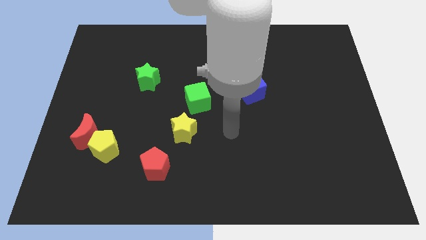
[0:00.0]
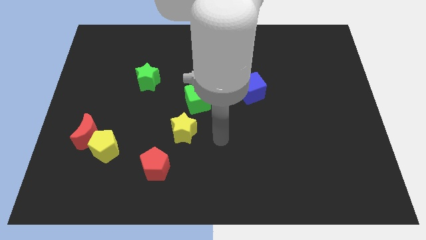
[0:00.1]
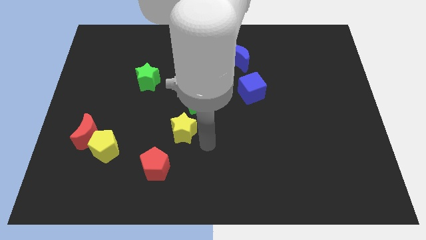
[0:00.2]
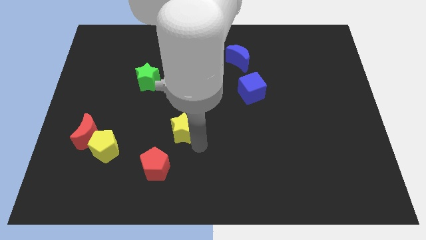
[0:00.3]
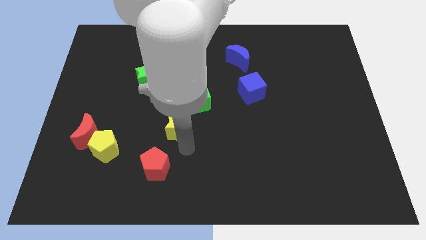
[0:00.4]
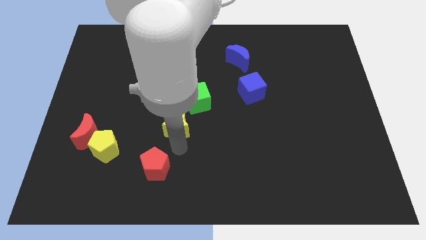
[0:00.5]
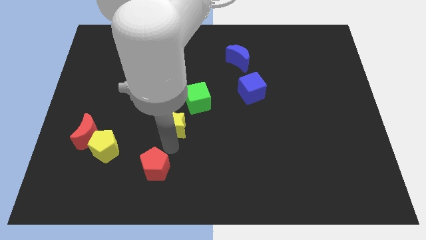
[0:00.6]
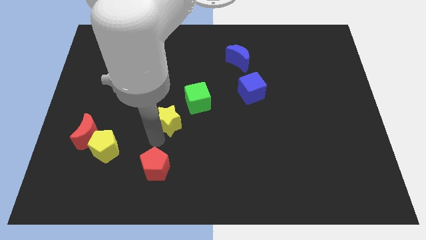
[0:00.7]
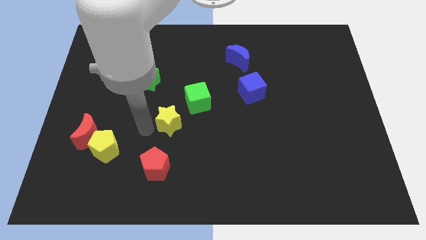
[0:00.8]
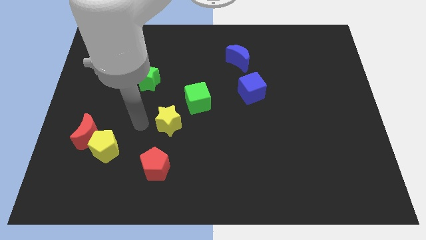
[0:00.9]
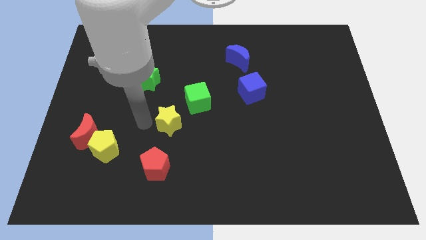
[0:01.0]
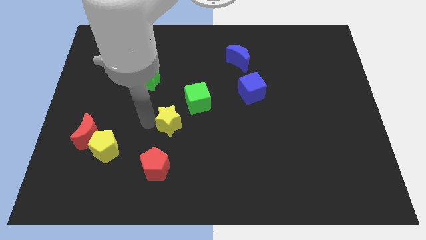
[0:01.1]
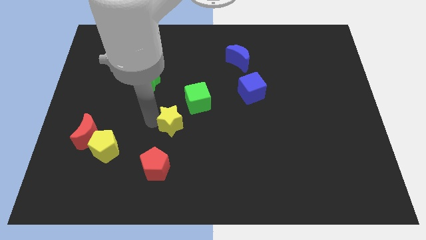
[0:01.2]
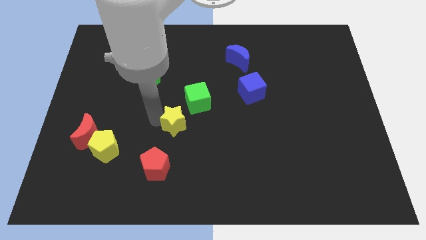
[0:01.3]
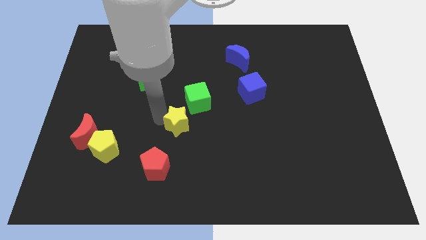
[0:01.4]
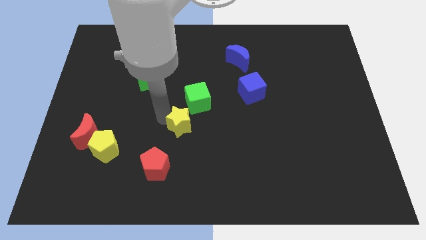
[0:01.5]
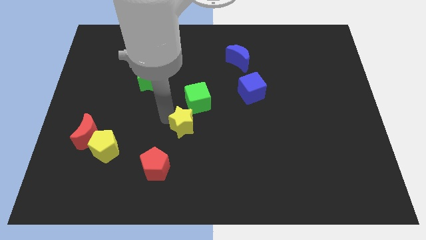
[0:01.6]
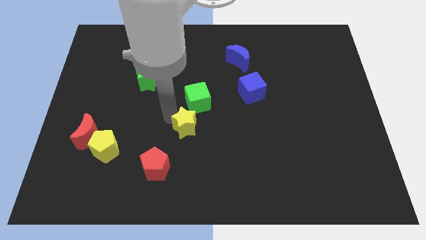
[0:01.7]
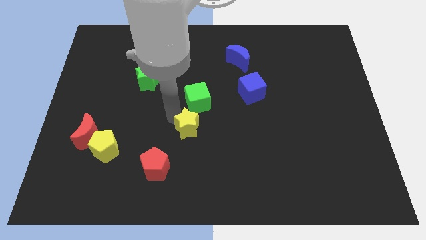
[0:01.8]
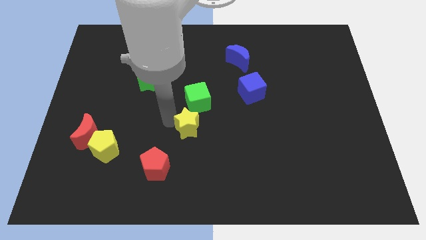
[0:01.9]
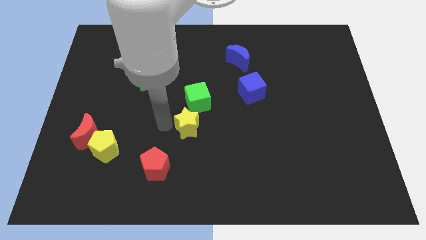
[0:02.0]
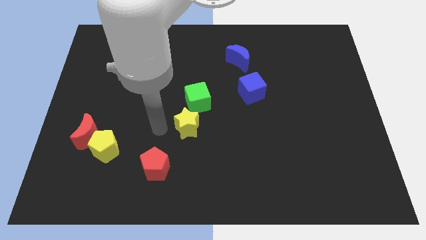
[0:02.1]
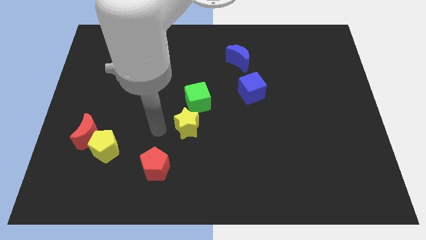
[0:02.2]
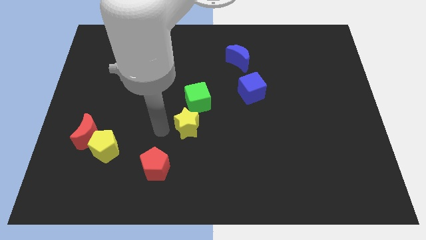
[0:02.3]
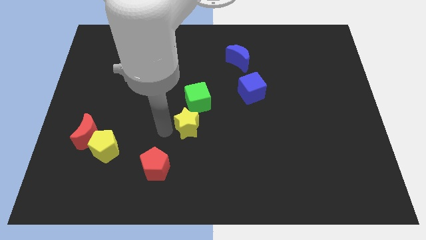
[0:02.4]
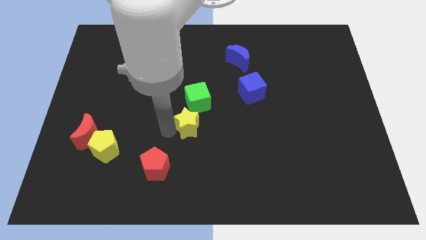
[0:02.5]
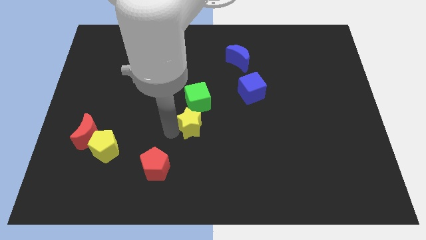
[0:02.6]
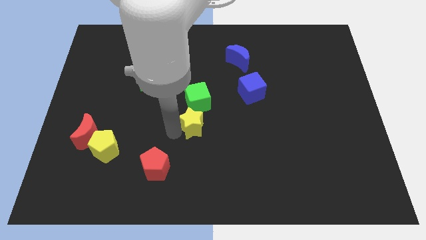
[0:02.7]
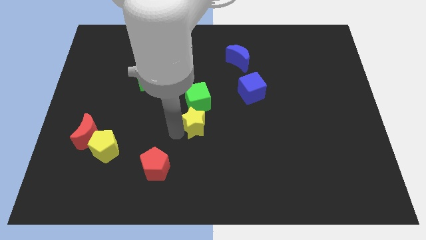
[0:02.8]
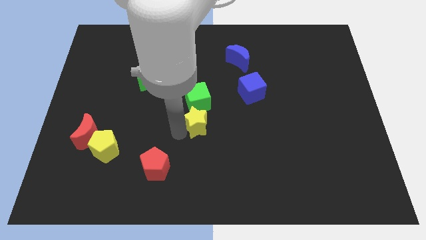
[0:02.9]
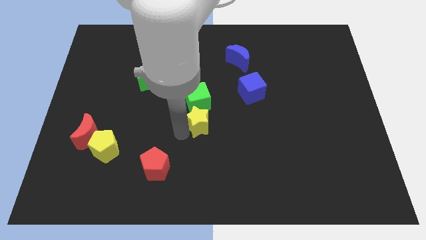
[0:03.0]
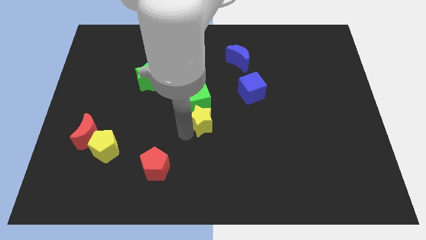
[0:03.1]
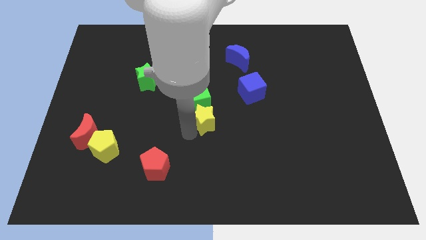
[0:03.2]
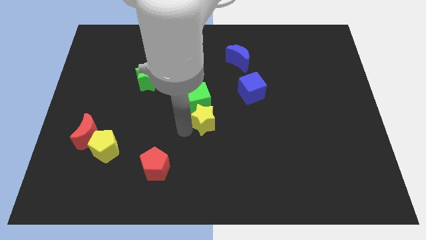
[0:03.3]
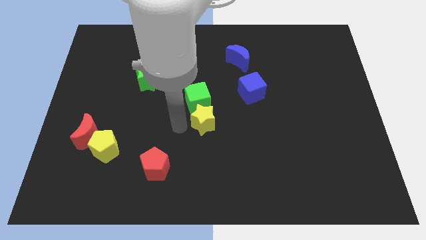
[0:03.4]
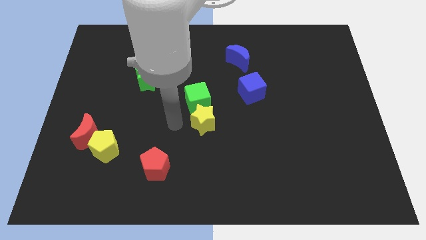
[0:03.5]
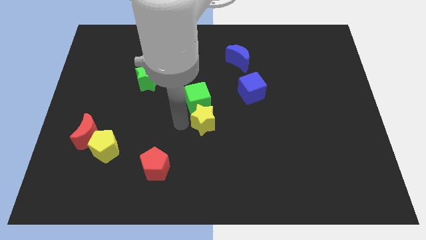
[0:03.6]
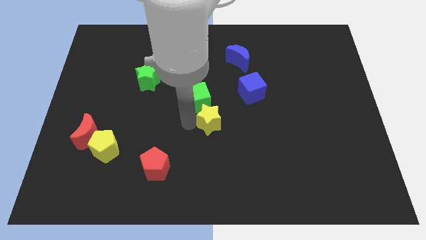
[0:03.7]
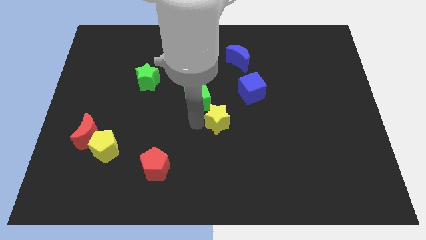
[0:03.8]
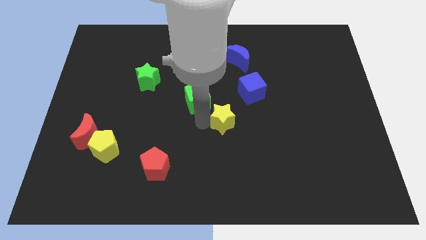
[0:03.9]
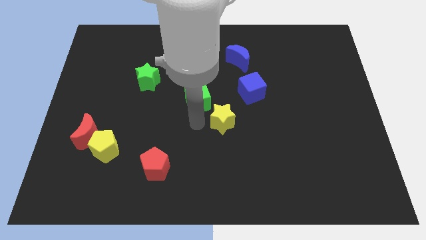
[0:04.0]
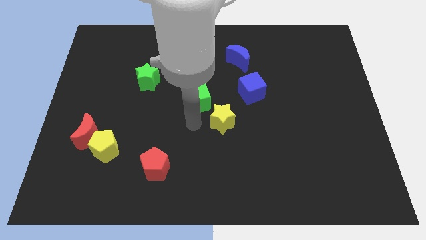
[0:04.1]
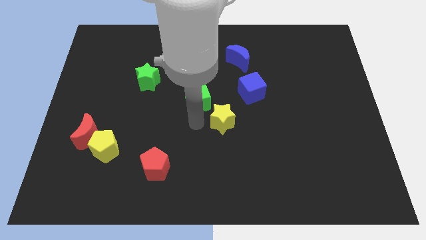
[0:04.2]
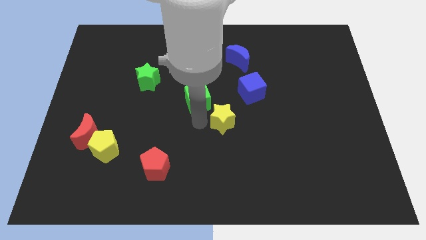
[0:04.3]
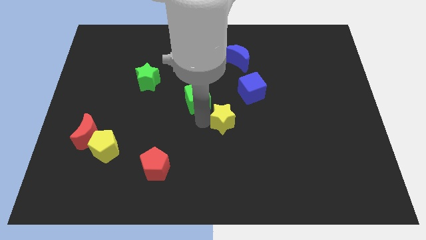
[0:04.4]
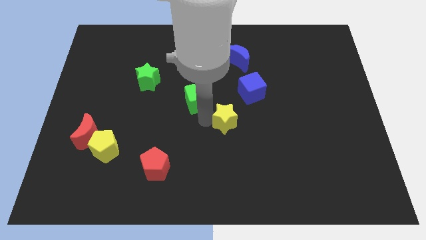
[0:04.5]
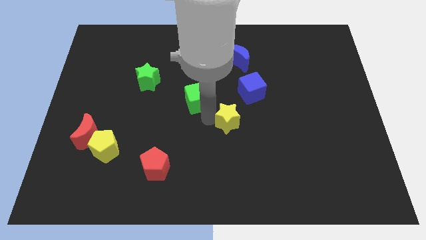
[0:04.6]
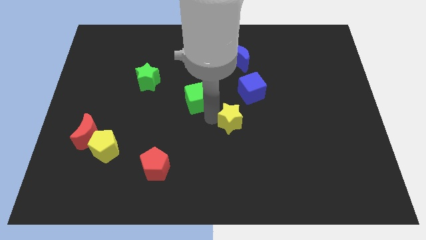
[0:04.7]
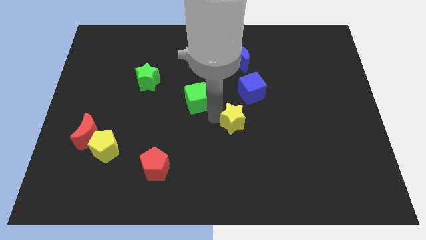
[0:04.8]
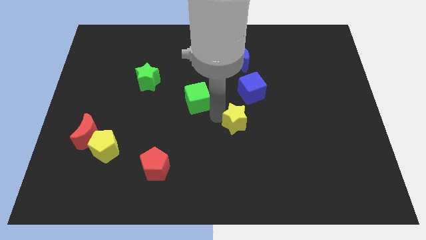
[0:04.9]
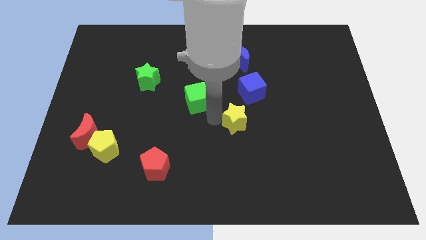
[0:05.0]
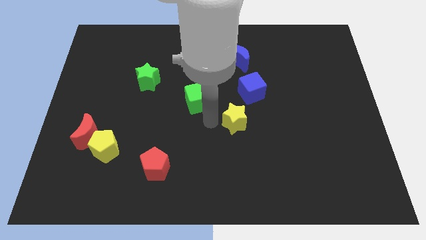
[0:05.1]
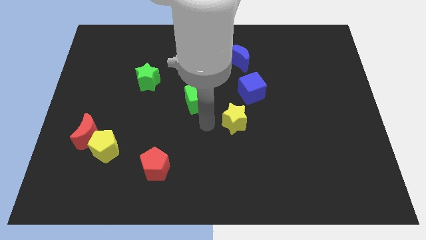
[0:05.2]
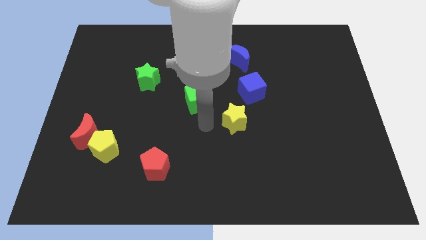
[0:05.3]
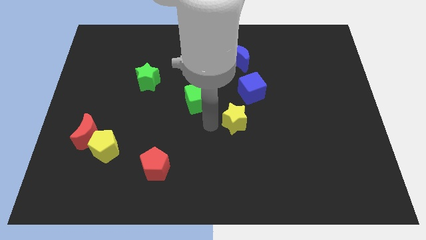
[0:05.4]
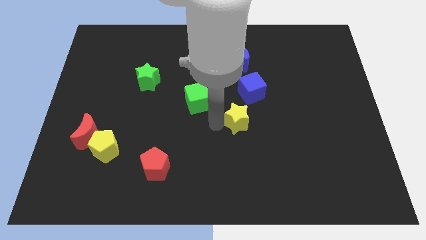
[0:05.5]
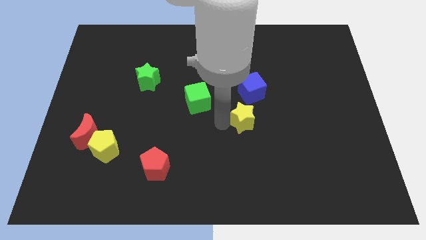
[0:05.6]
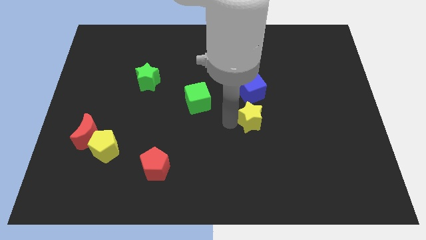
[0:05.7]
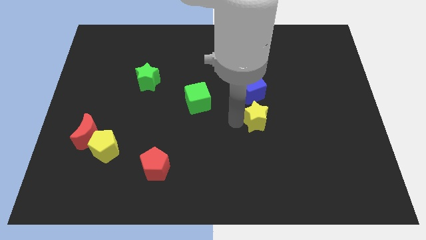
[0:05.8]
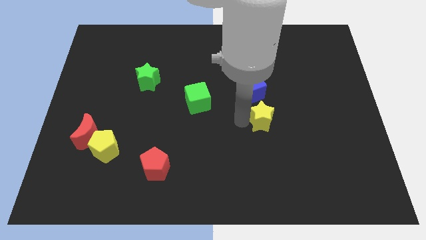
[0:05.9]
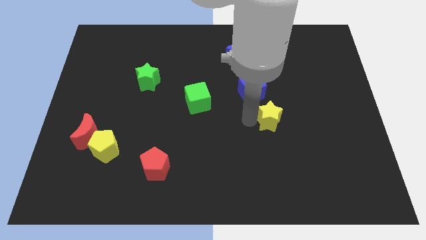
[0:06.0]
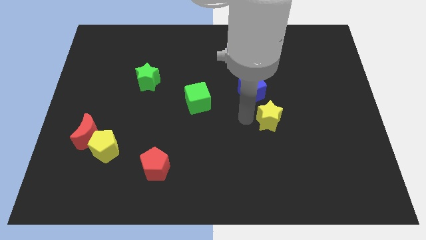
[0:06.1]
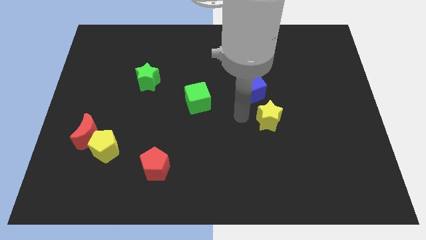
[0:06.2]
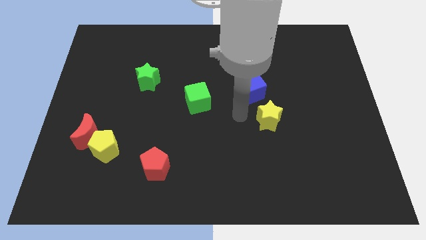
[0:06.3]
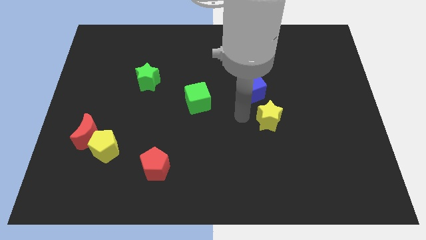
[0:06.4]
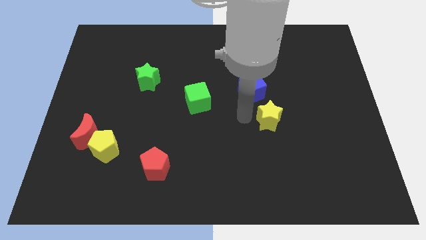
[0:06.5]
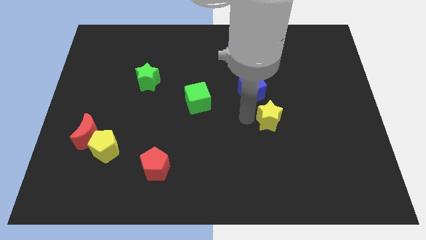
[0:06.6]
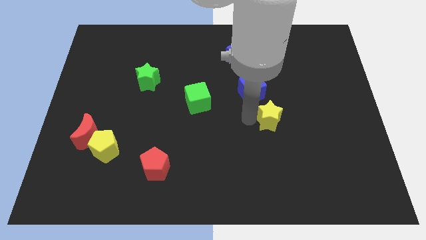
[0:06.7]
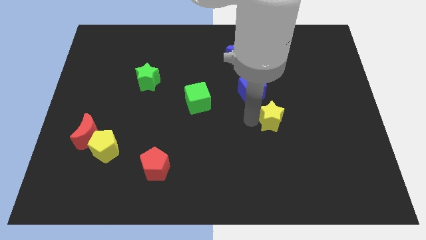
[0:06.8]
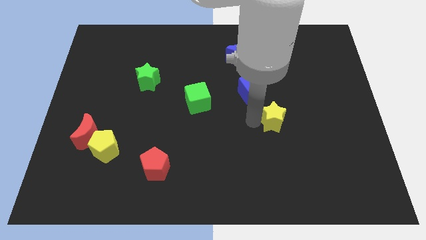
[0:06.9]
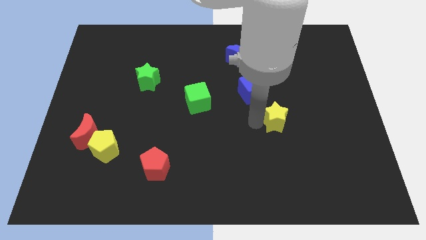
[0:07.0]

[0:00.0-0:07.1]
push the yellow star right

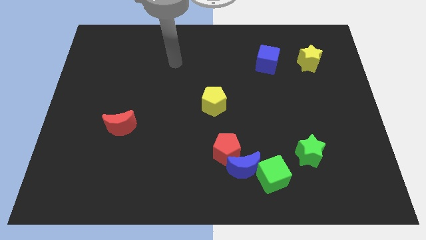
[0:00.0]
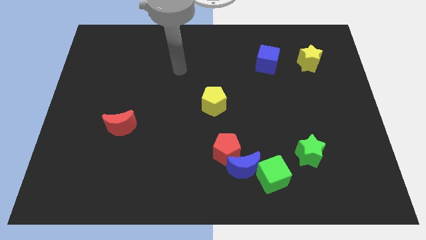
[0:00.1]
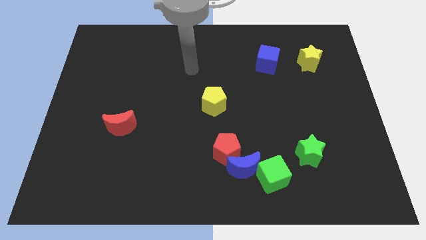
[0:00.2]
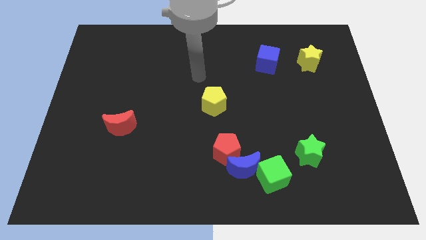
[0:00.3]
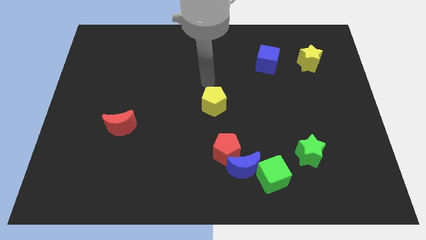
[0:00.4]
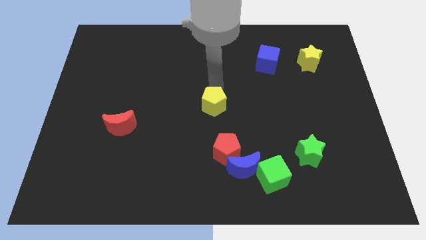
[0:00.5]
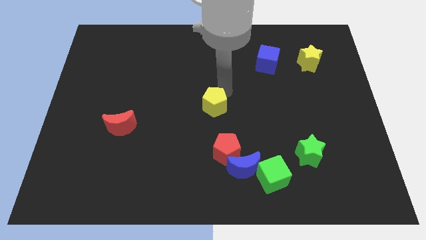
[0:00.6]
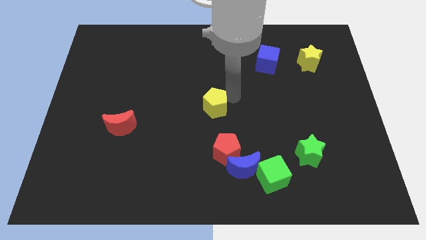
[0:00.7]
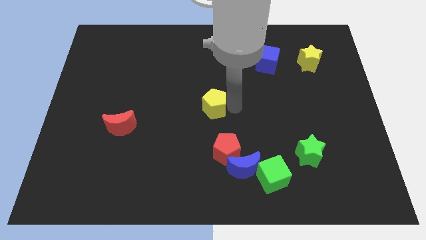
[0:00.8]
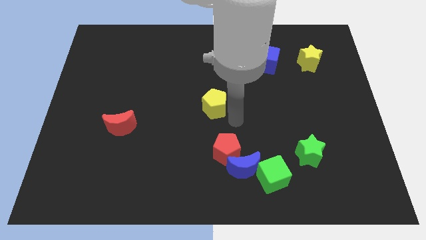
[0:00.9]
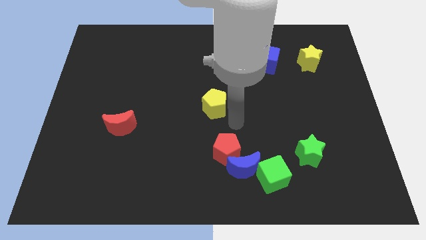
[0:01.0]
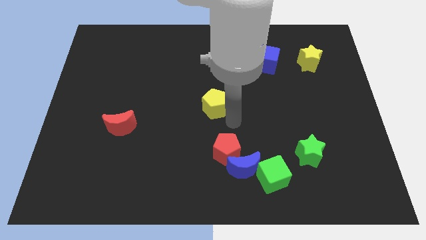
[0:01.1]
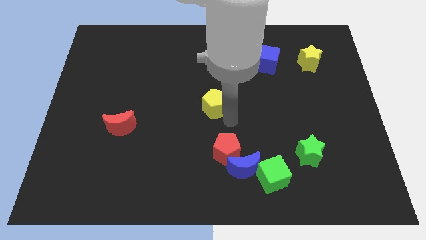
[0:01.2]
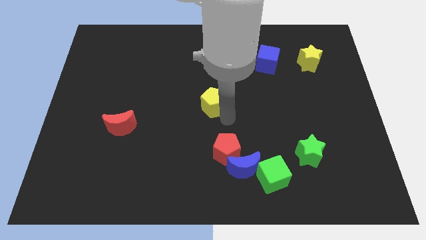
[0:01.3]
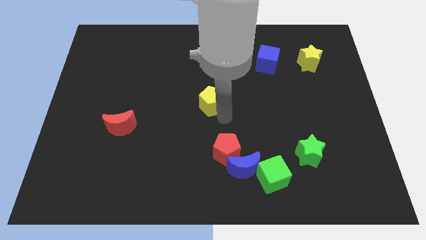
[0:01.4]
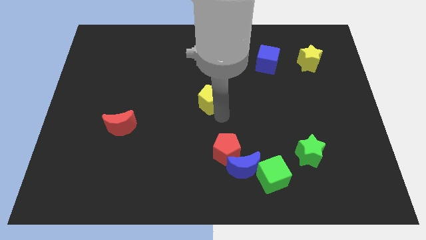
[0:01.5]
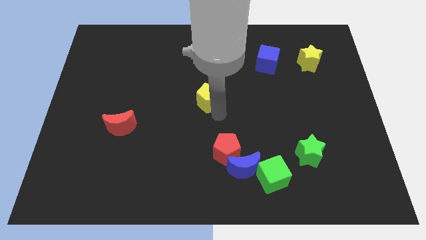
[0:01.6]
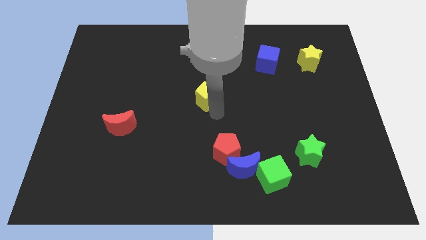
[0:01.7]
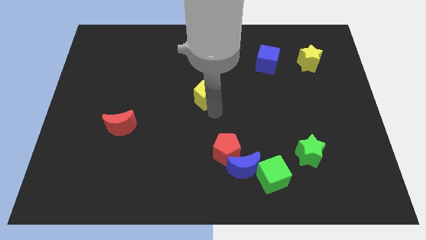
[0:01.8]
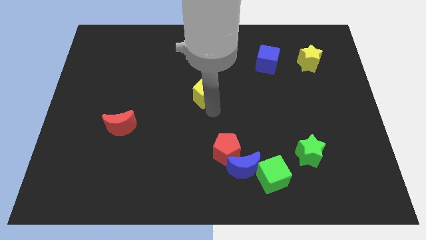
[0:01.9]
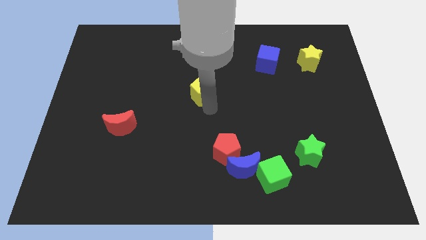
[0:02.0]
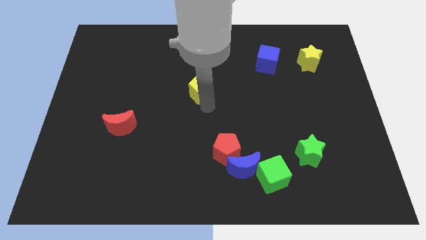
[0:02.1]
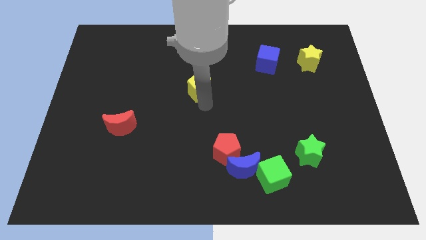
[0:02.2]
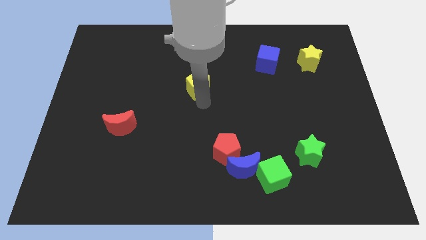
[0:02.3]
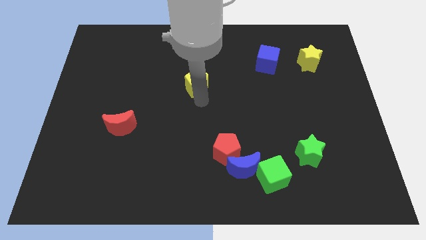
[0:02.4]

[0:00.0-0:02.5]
slide the yellow pentagon diagonally up and left slightly
